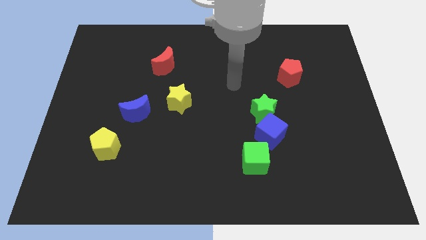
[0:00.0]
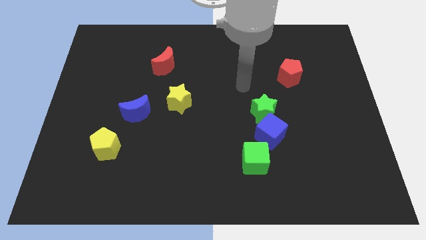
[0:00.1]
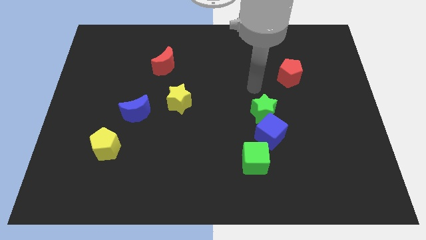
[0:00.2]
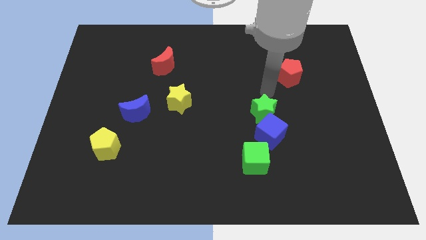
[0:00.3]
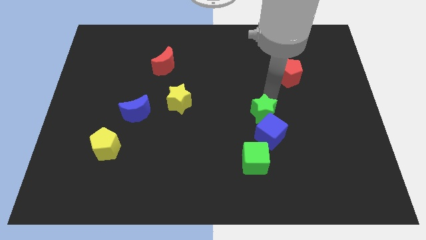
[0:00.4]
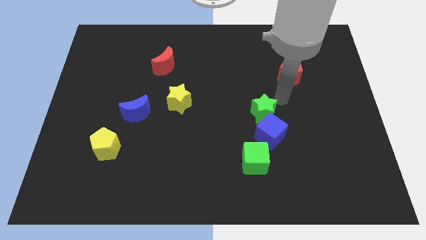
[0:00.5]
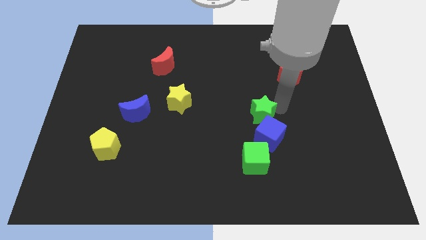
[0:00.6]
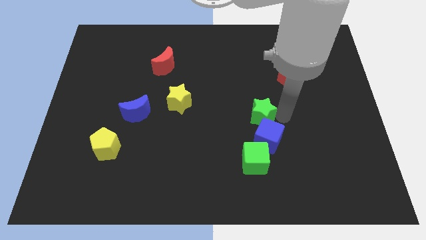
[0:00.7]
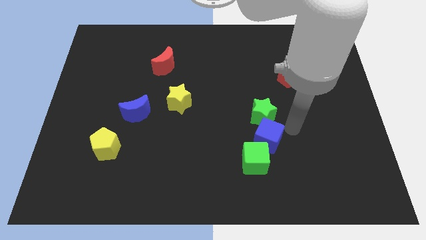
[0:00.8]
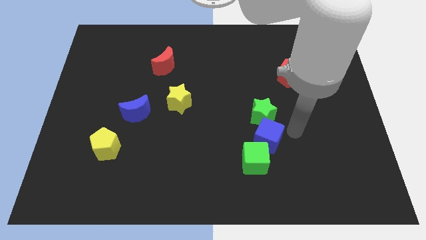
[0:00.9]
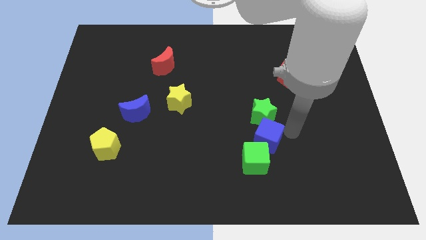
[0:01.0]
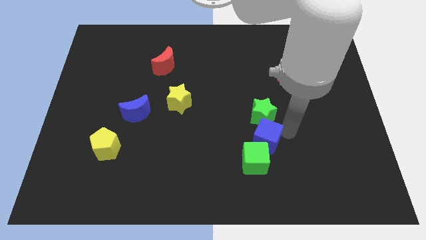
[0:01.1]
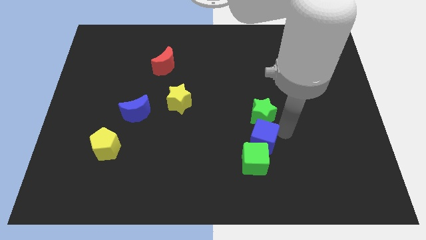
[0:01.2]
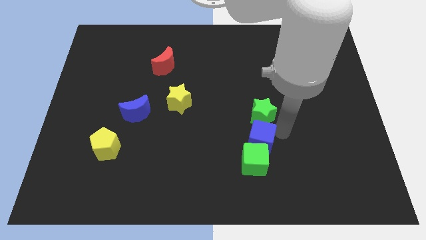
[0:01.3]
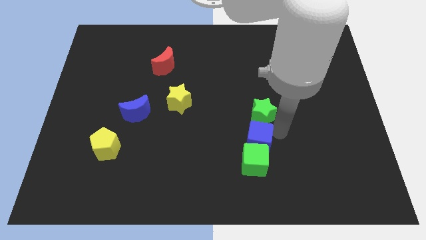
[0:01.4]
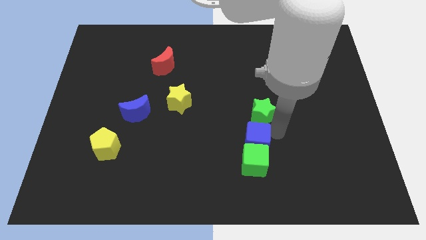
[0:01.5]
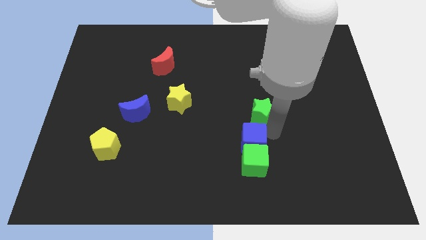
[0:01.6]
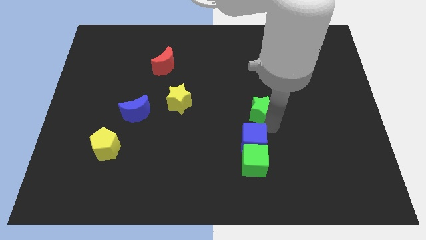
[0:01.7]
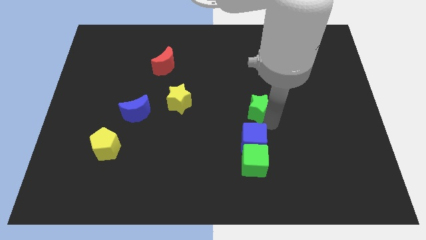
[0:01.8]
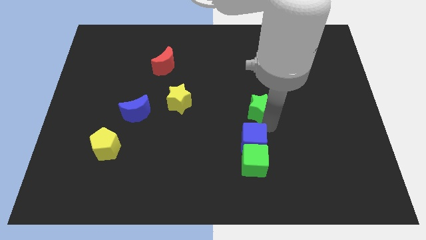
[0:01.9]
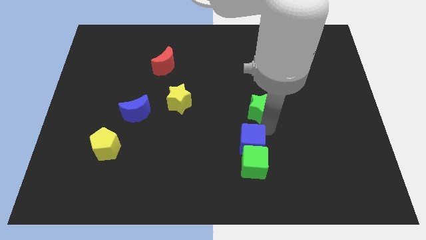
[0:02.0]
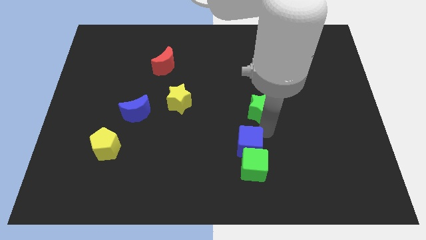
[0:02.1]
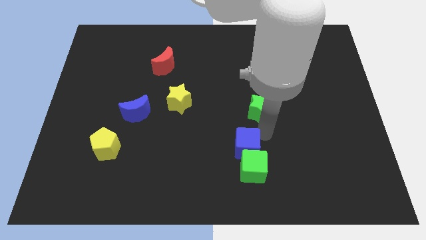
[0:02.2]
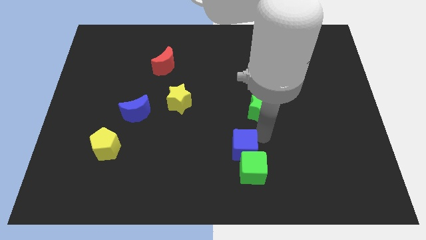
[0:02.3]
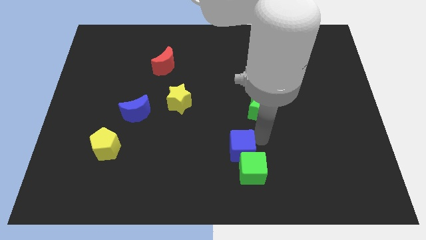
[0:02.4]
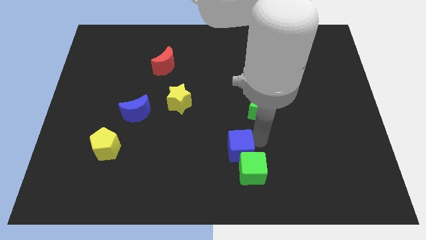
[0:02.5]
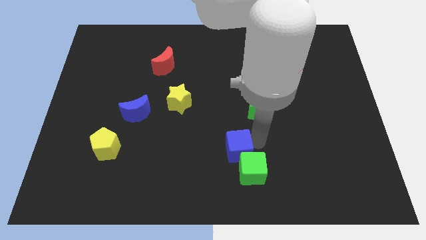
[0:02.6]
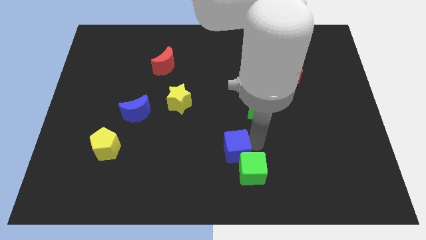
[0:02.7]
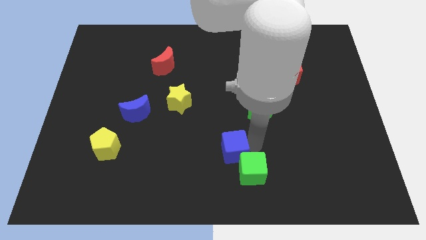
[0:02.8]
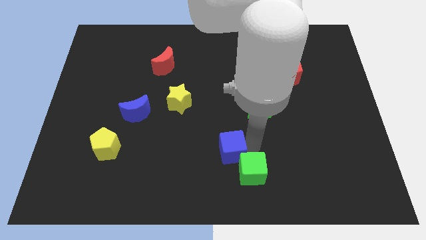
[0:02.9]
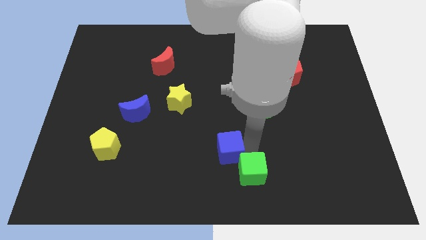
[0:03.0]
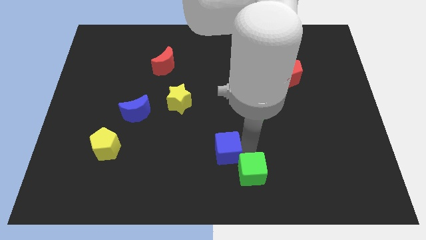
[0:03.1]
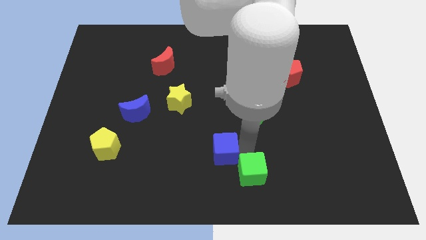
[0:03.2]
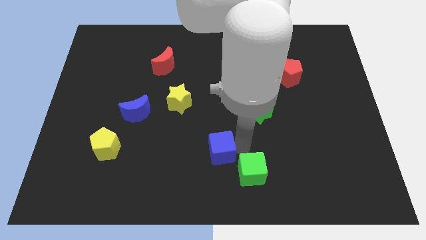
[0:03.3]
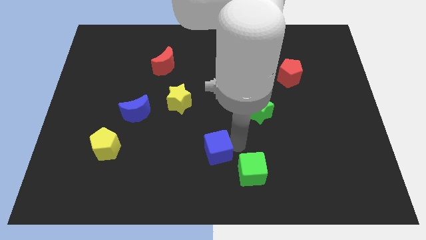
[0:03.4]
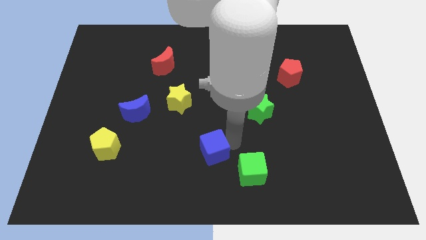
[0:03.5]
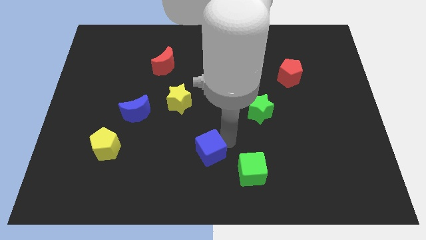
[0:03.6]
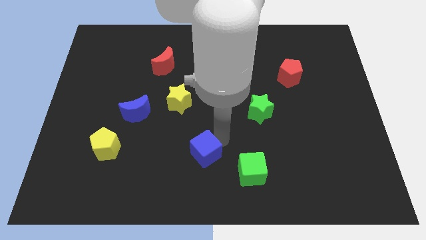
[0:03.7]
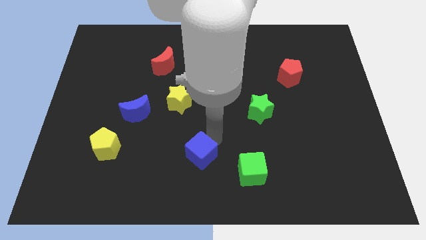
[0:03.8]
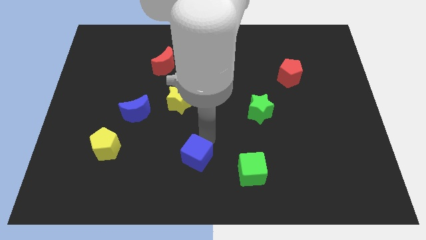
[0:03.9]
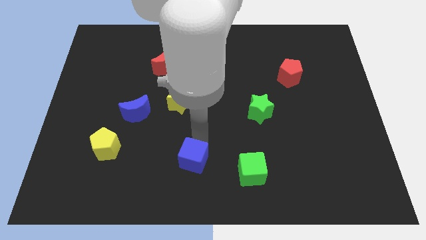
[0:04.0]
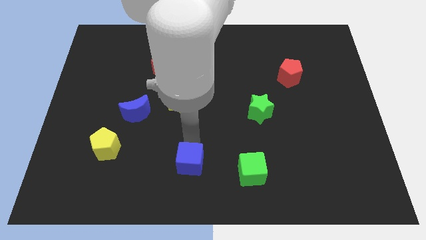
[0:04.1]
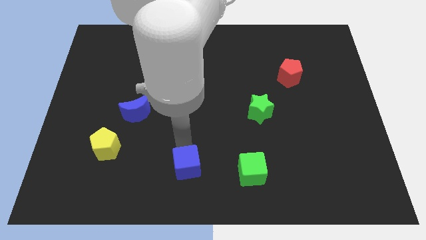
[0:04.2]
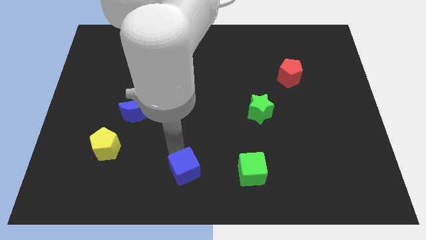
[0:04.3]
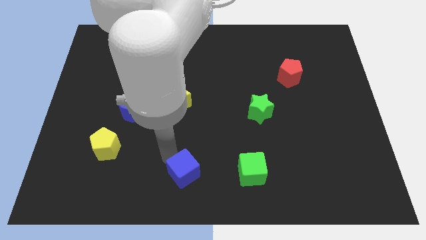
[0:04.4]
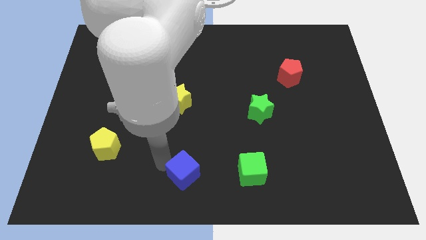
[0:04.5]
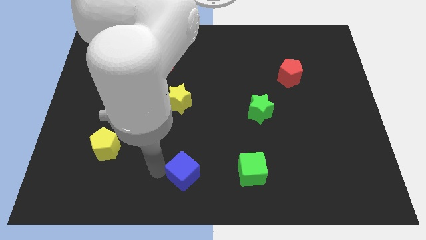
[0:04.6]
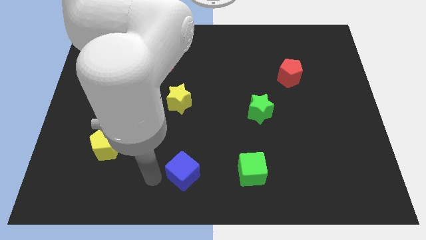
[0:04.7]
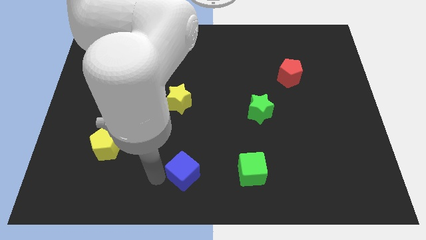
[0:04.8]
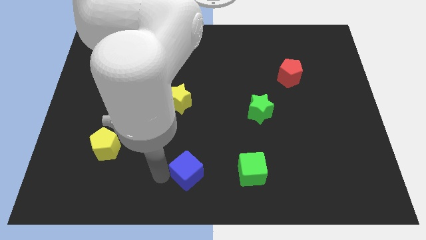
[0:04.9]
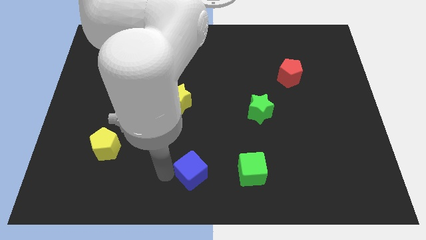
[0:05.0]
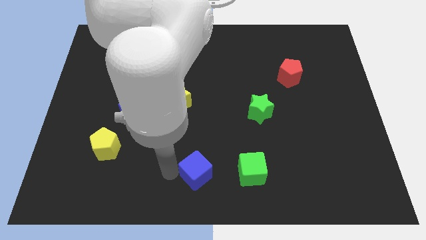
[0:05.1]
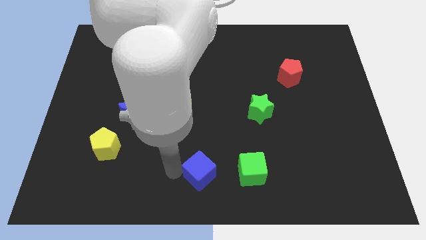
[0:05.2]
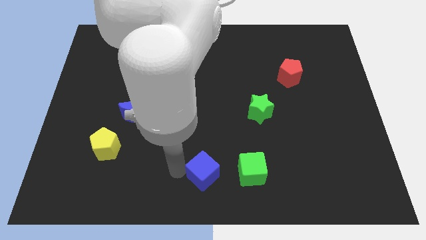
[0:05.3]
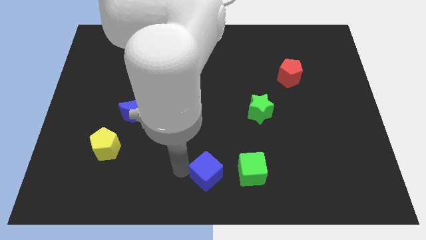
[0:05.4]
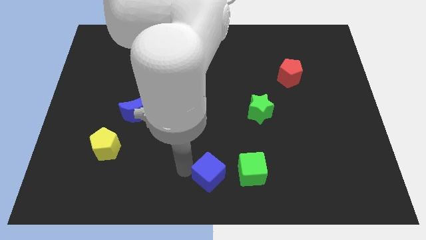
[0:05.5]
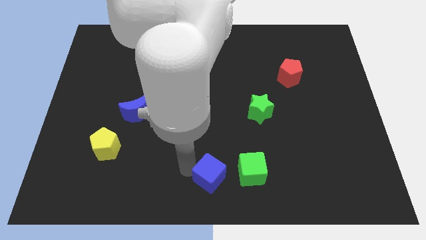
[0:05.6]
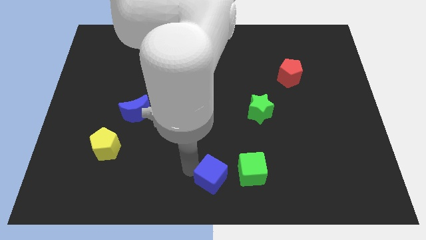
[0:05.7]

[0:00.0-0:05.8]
move the blue cube to the bottom left of the green cube
